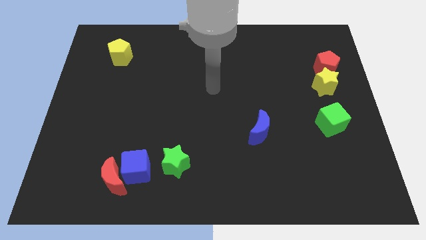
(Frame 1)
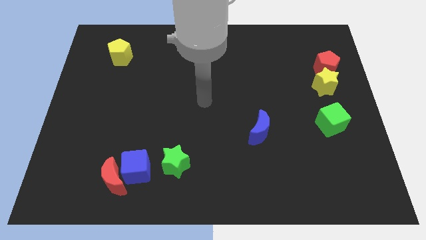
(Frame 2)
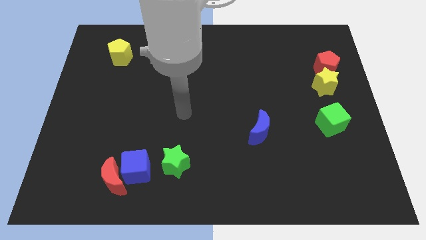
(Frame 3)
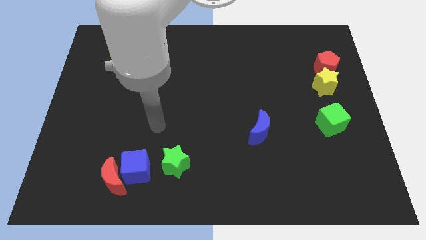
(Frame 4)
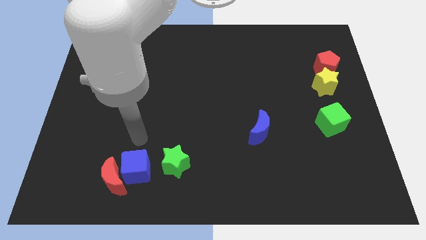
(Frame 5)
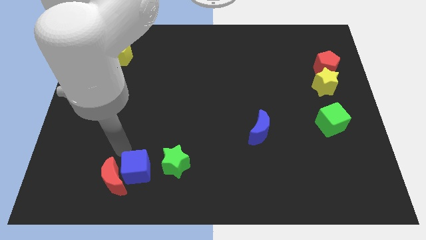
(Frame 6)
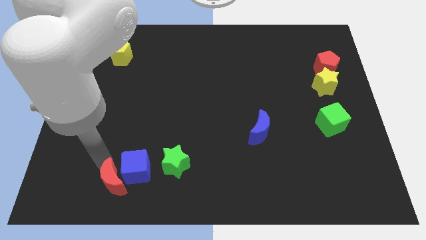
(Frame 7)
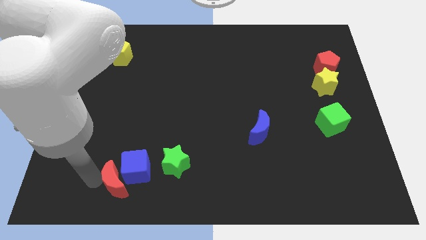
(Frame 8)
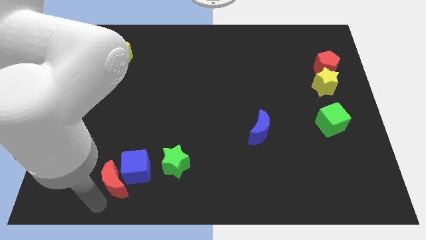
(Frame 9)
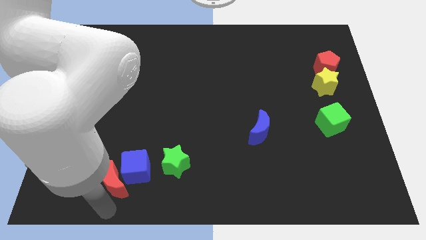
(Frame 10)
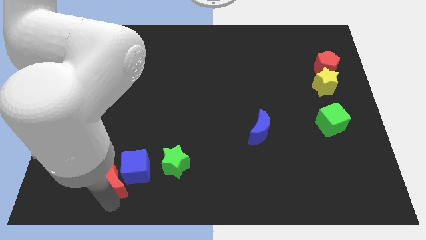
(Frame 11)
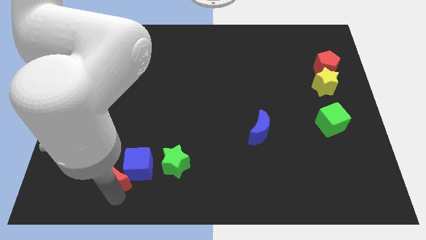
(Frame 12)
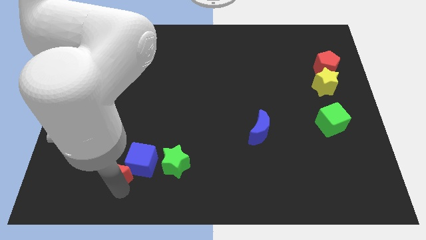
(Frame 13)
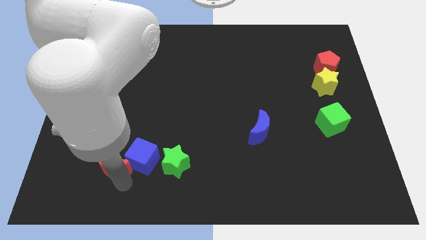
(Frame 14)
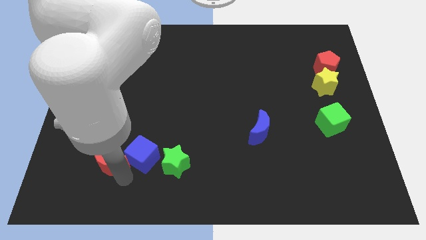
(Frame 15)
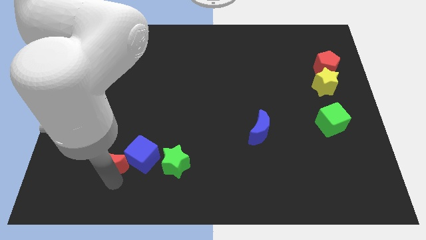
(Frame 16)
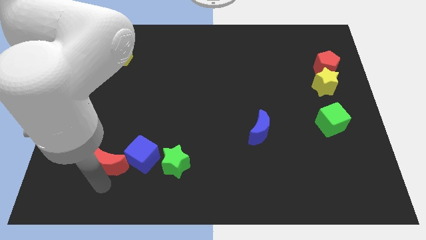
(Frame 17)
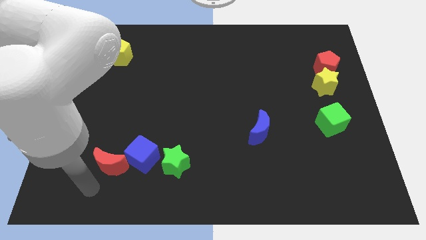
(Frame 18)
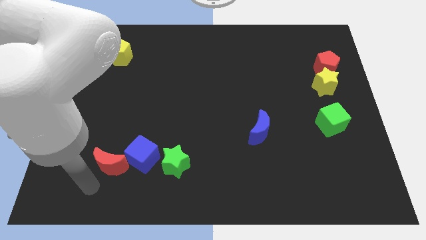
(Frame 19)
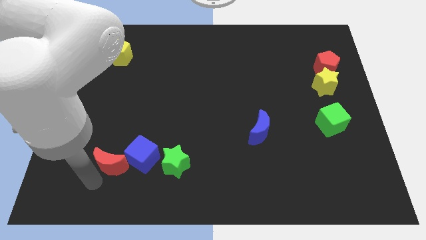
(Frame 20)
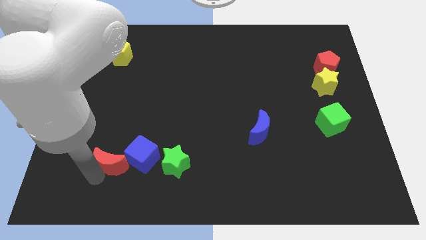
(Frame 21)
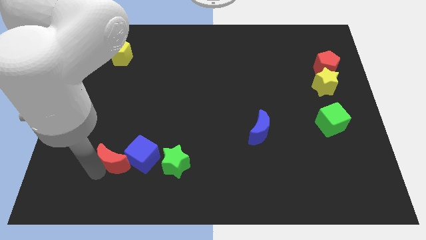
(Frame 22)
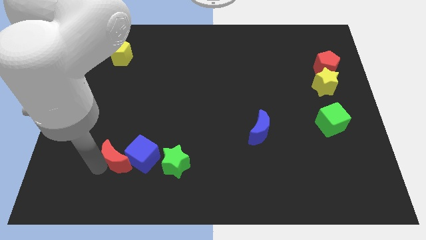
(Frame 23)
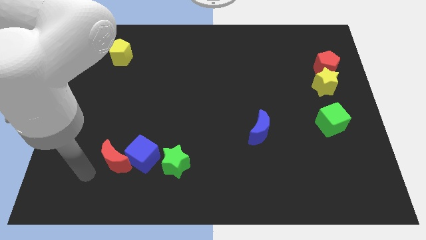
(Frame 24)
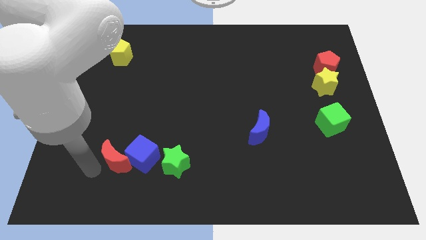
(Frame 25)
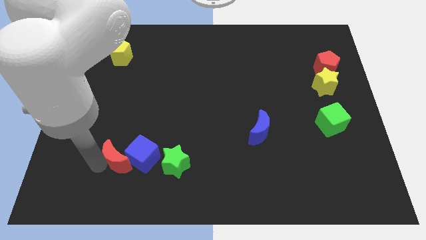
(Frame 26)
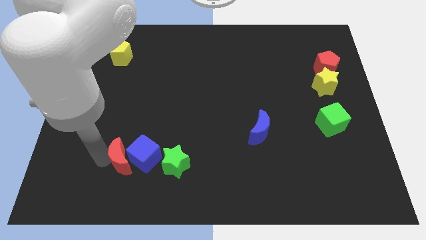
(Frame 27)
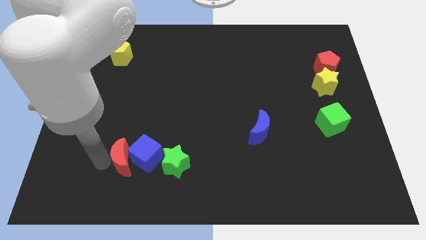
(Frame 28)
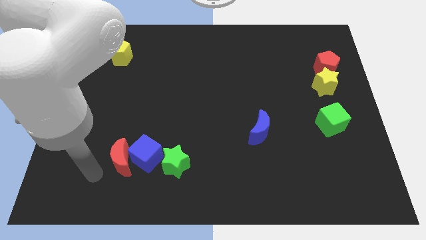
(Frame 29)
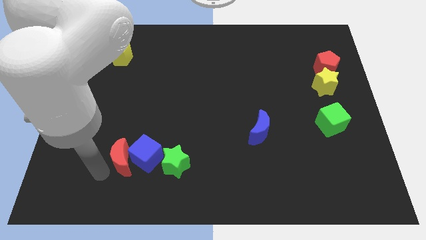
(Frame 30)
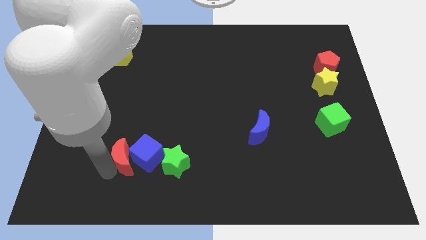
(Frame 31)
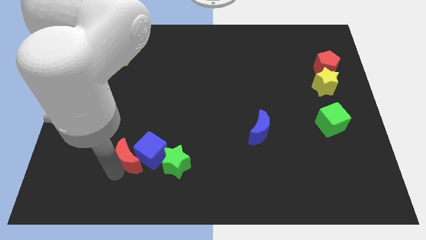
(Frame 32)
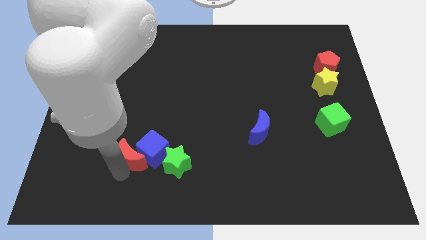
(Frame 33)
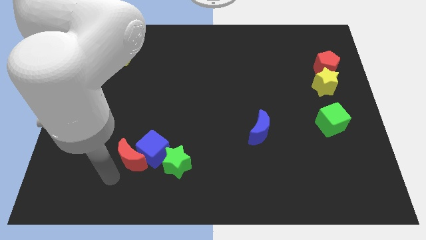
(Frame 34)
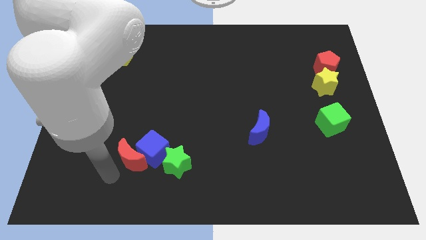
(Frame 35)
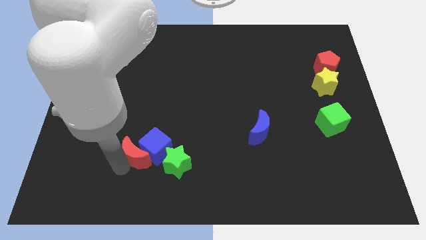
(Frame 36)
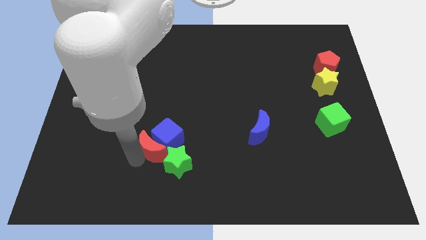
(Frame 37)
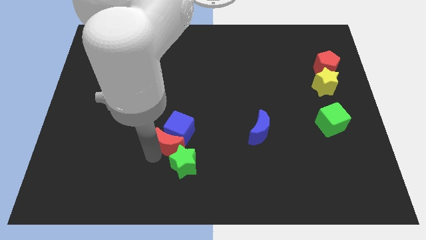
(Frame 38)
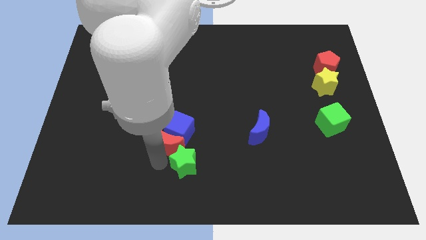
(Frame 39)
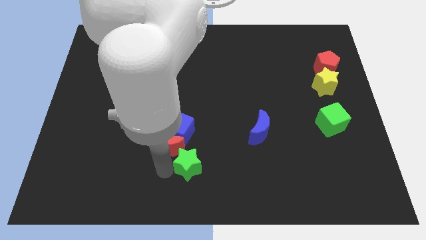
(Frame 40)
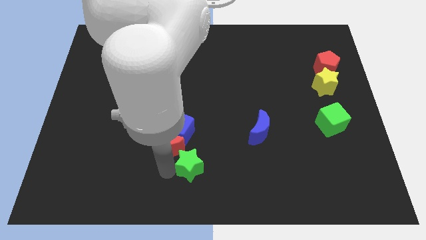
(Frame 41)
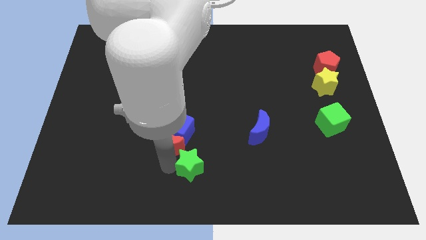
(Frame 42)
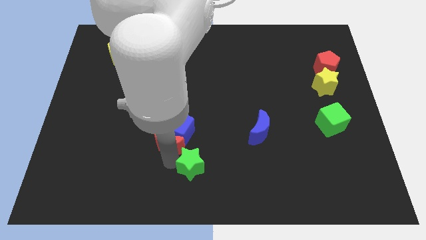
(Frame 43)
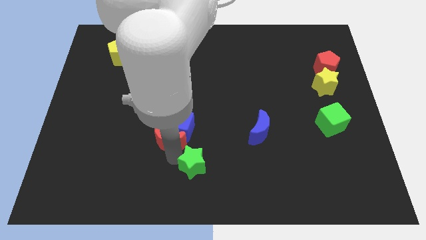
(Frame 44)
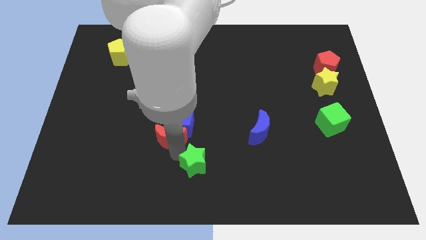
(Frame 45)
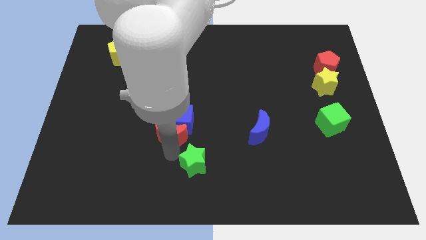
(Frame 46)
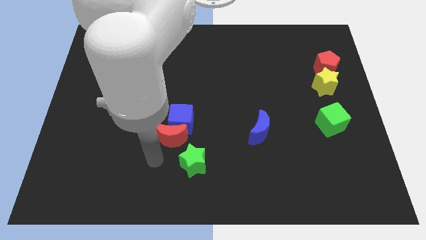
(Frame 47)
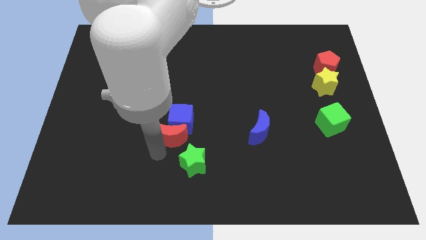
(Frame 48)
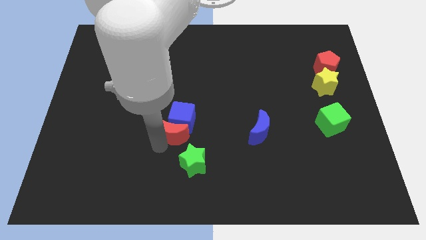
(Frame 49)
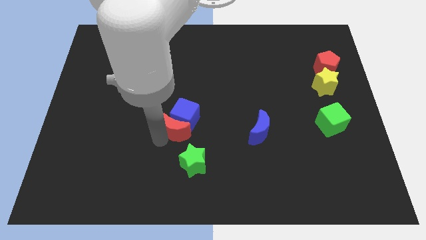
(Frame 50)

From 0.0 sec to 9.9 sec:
move the red moon to the middle

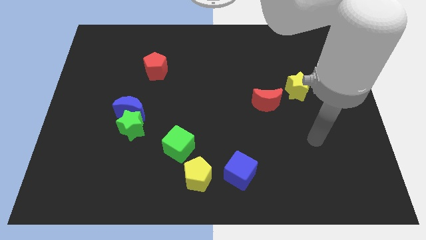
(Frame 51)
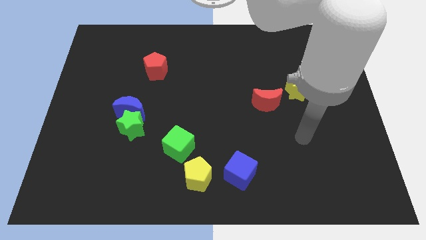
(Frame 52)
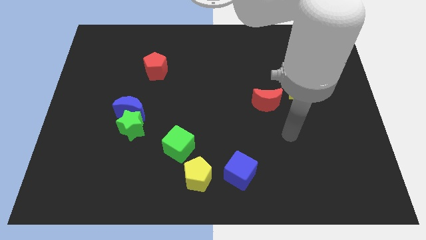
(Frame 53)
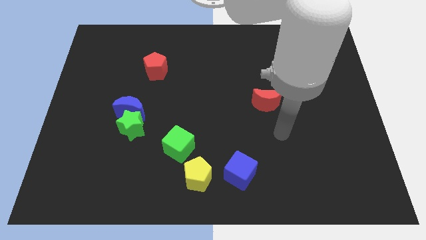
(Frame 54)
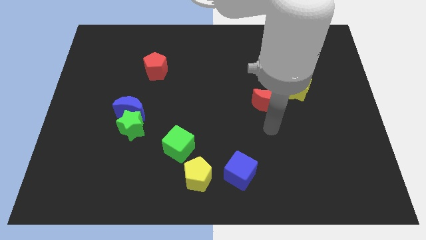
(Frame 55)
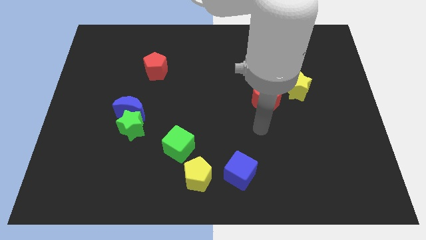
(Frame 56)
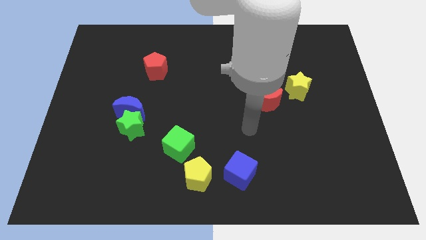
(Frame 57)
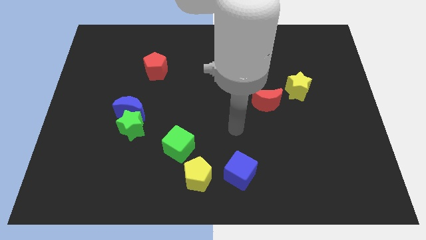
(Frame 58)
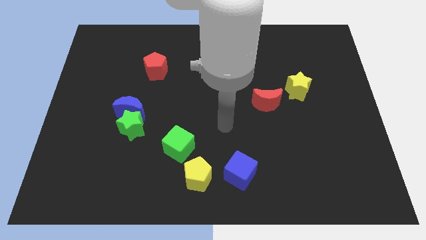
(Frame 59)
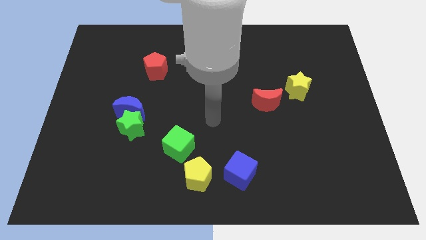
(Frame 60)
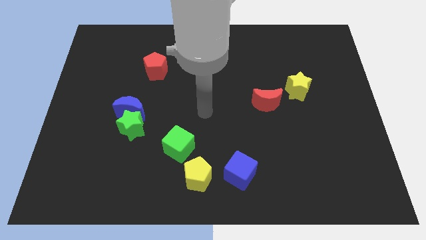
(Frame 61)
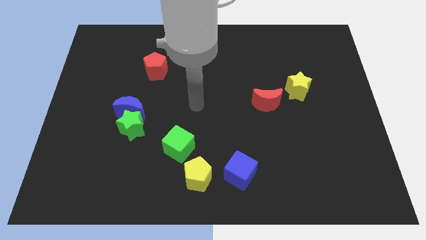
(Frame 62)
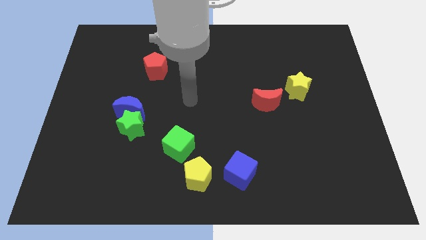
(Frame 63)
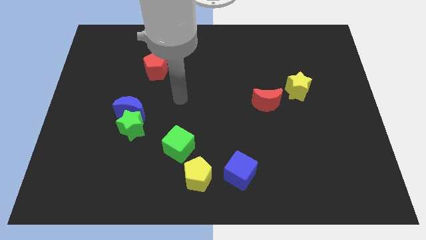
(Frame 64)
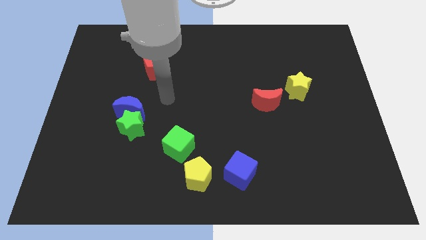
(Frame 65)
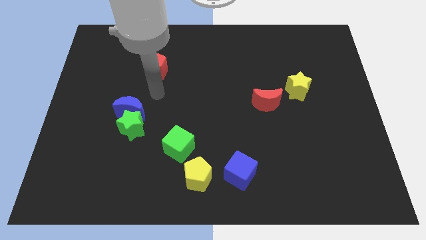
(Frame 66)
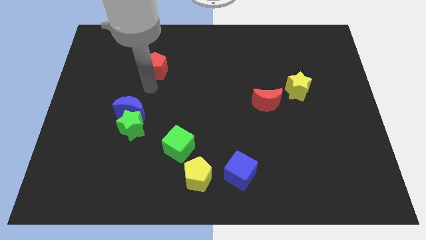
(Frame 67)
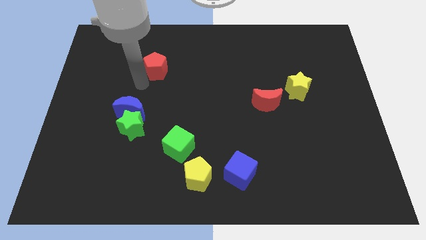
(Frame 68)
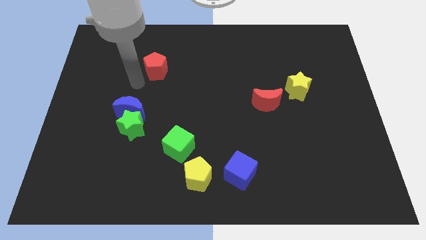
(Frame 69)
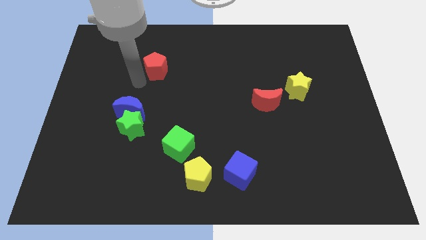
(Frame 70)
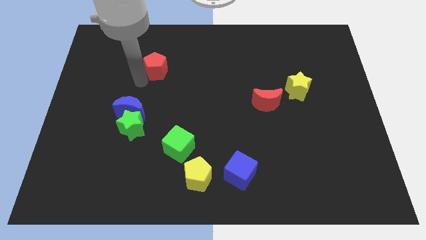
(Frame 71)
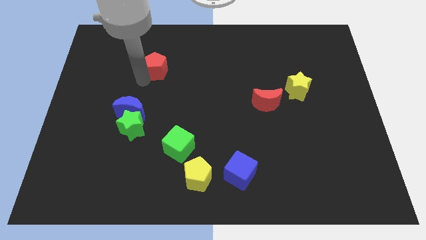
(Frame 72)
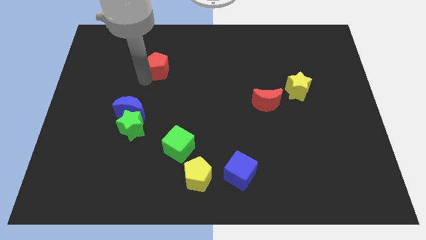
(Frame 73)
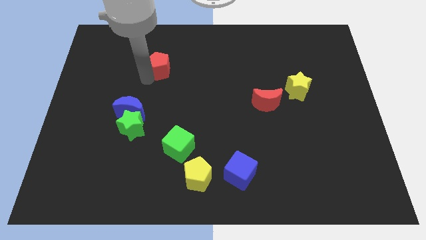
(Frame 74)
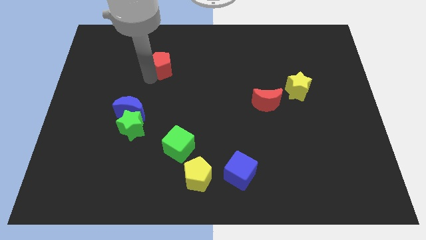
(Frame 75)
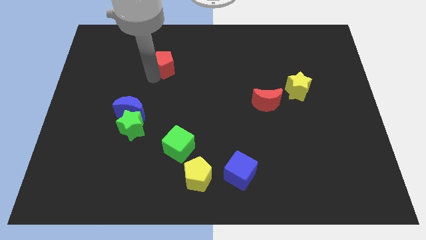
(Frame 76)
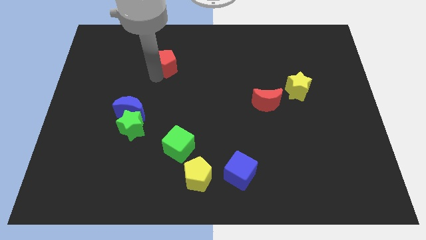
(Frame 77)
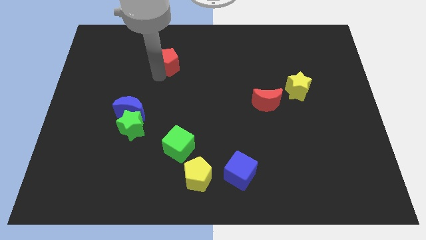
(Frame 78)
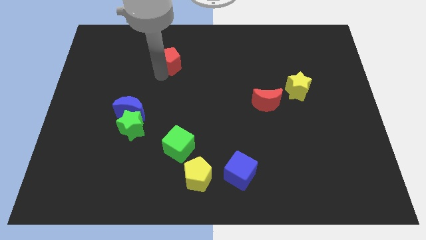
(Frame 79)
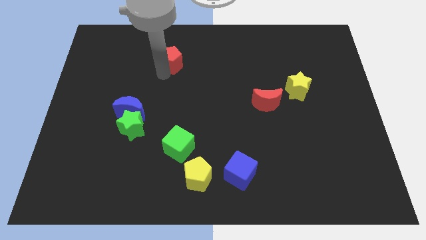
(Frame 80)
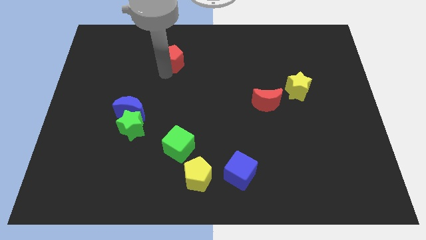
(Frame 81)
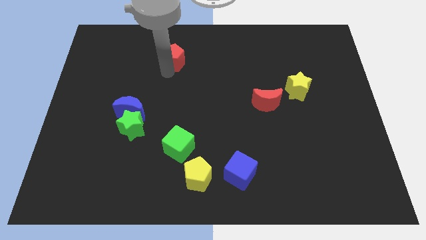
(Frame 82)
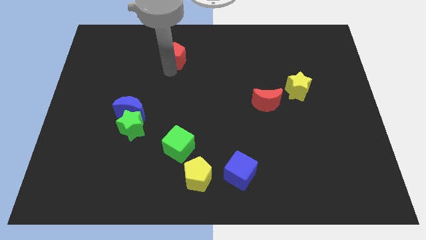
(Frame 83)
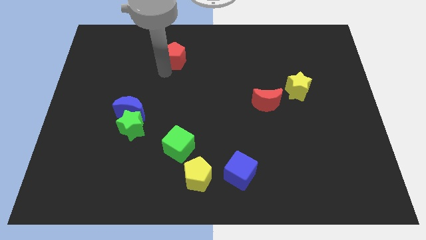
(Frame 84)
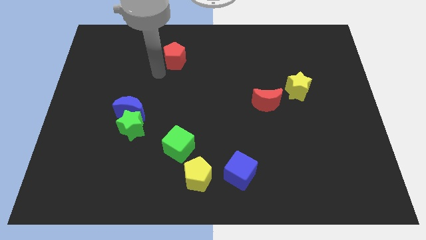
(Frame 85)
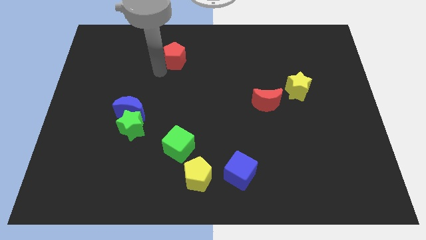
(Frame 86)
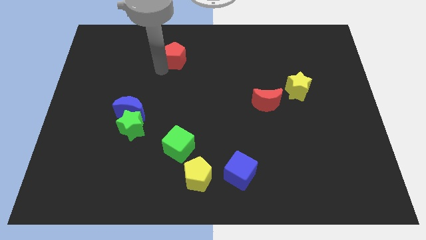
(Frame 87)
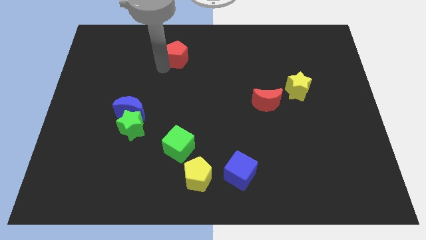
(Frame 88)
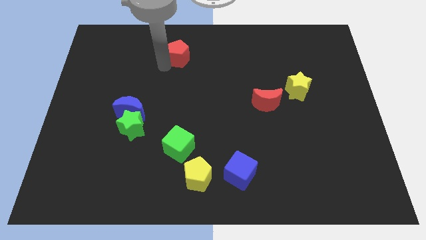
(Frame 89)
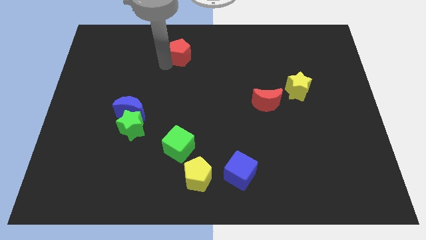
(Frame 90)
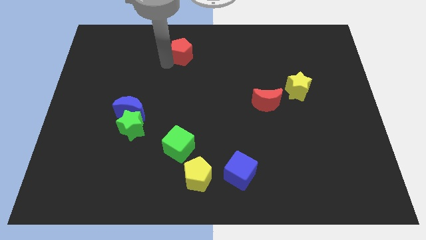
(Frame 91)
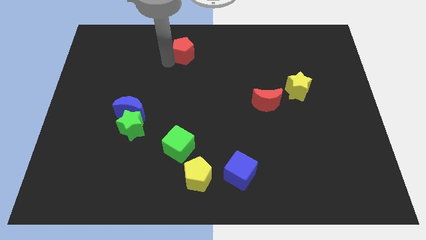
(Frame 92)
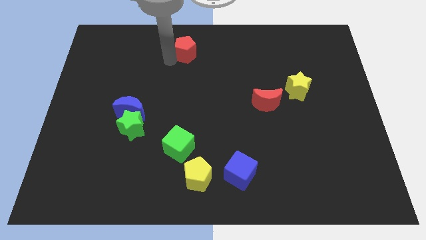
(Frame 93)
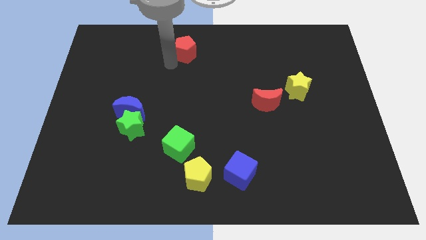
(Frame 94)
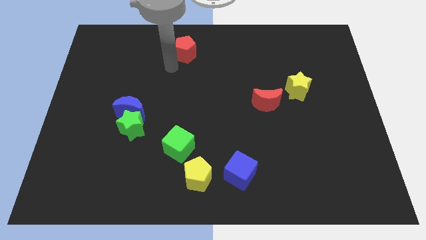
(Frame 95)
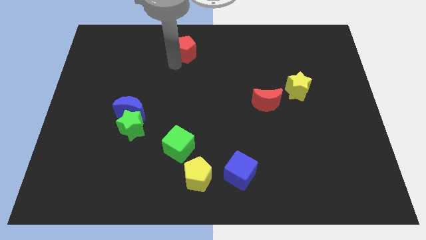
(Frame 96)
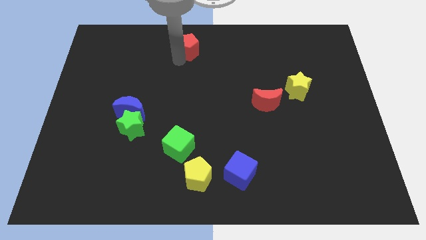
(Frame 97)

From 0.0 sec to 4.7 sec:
put the red pentagon to the top side
